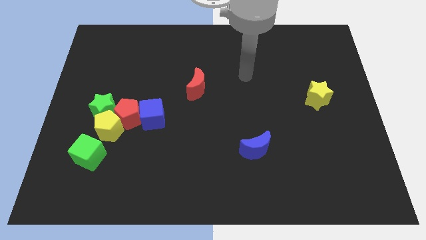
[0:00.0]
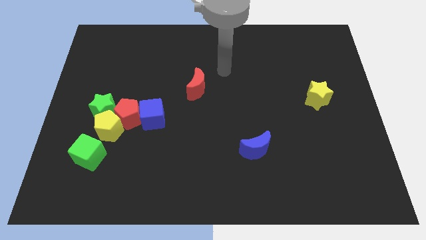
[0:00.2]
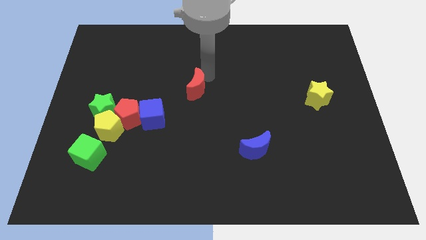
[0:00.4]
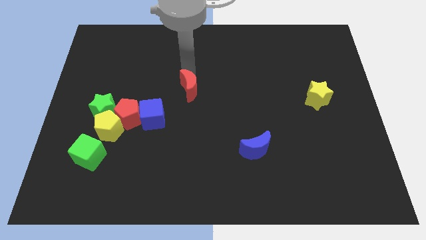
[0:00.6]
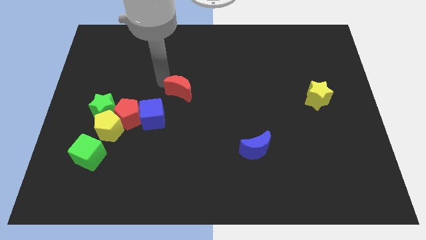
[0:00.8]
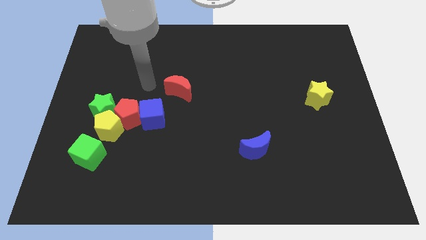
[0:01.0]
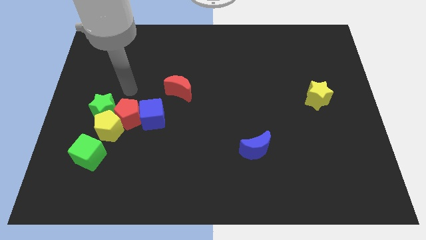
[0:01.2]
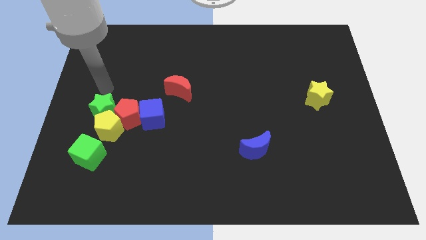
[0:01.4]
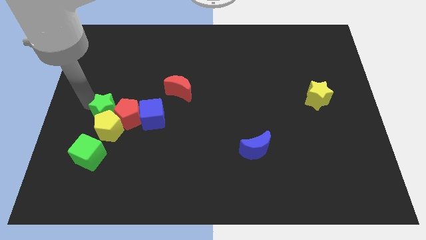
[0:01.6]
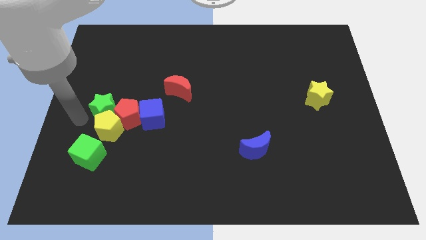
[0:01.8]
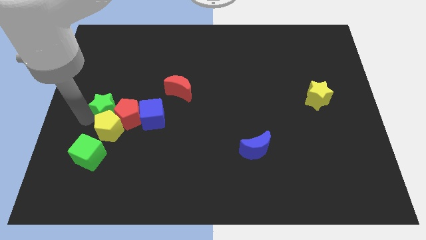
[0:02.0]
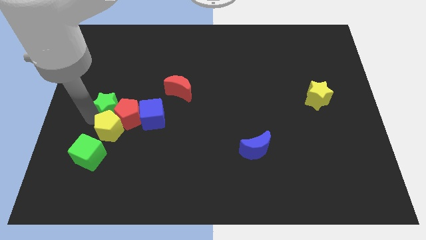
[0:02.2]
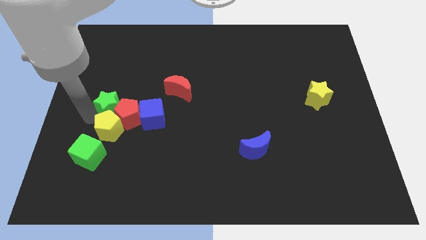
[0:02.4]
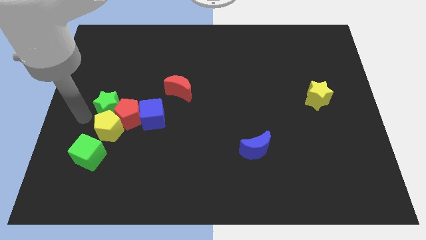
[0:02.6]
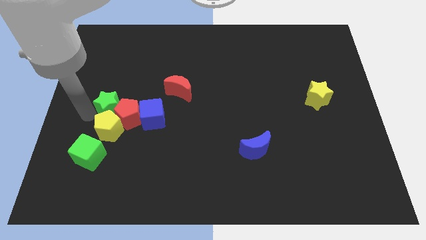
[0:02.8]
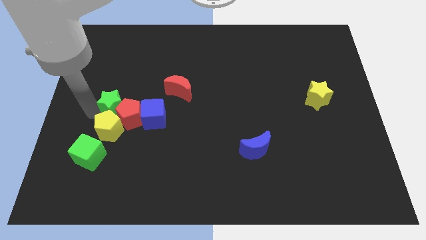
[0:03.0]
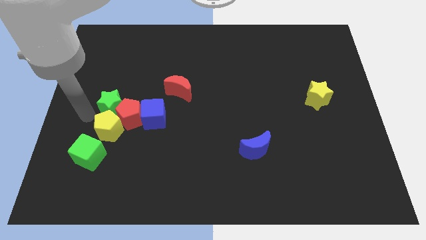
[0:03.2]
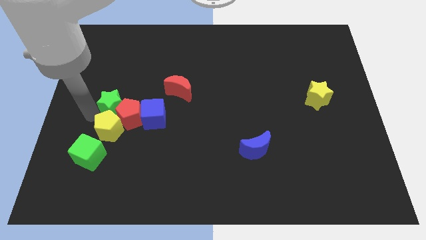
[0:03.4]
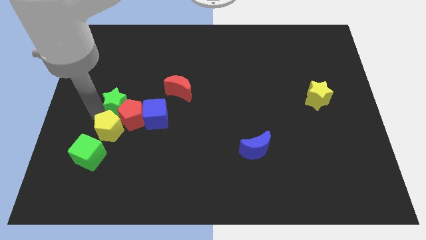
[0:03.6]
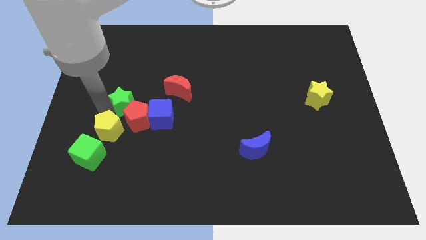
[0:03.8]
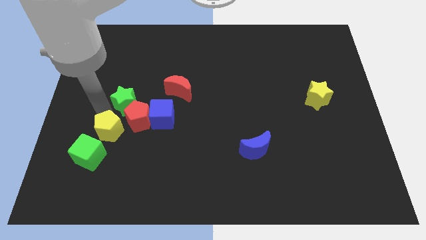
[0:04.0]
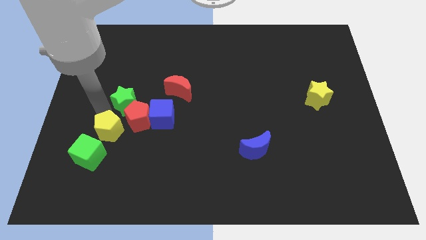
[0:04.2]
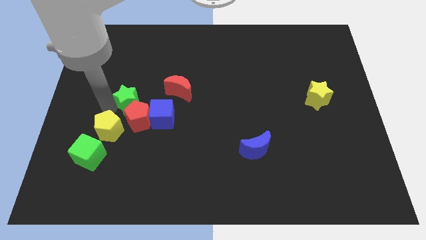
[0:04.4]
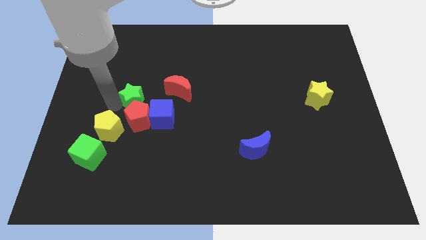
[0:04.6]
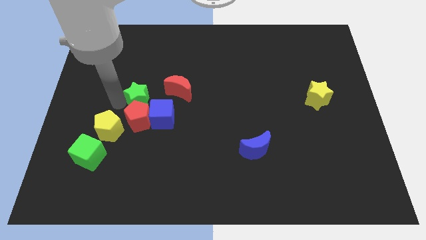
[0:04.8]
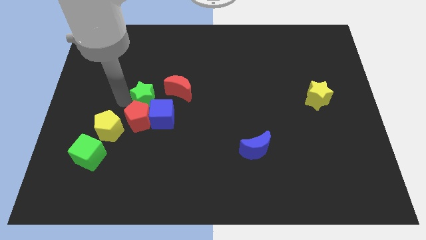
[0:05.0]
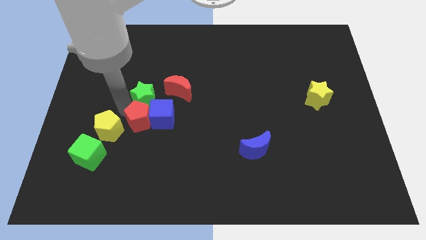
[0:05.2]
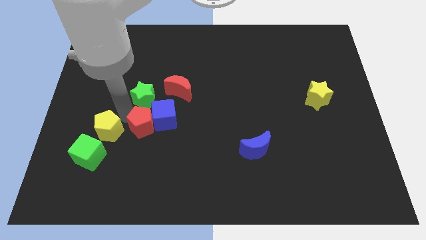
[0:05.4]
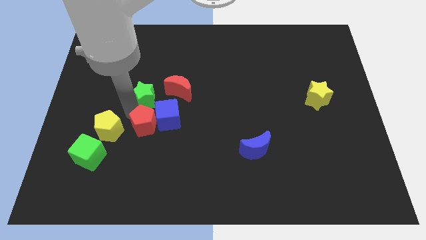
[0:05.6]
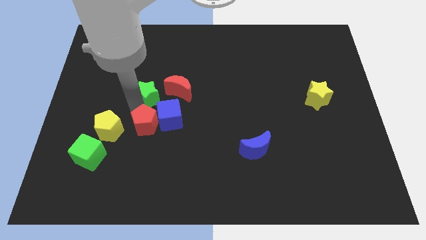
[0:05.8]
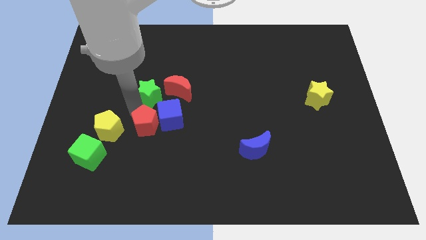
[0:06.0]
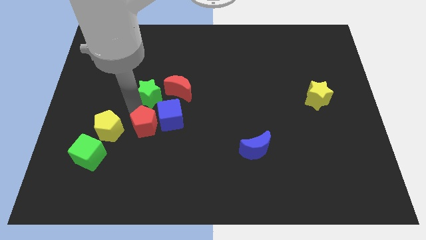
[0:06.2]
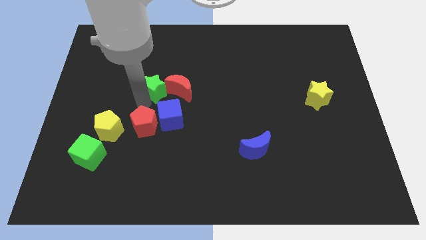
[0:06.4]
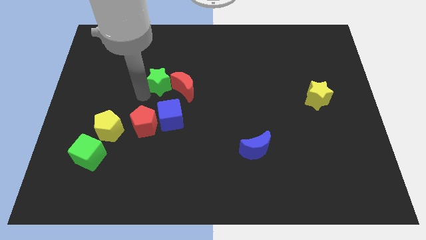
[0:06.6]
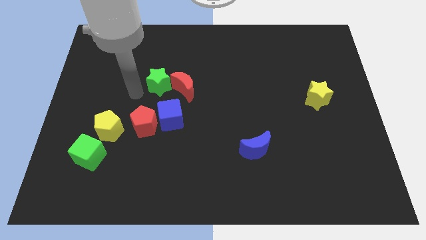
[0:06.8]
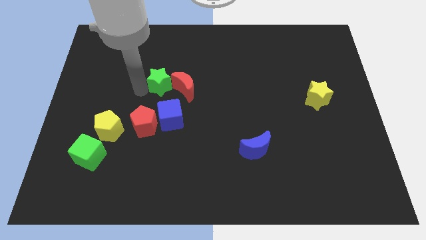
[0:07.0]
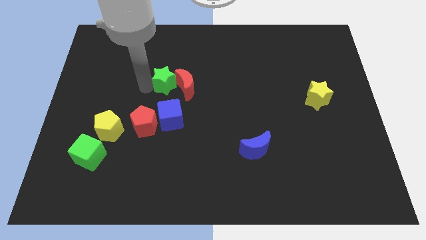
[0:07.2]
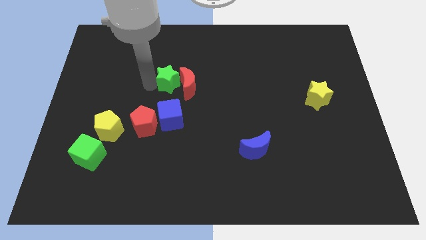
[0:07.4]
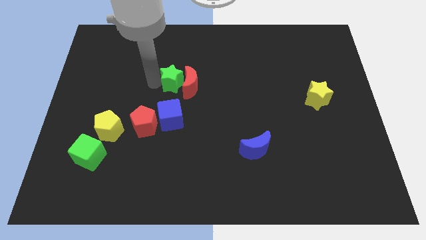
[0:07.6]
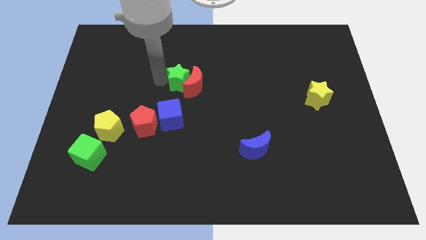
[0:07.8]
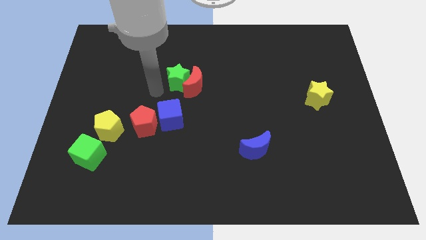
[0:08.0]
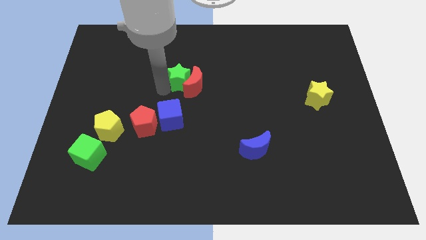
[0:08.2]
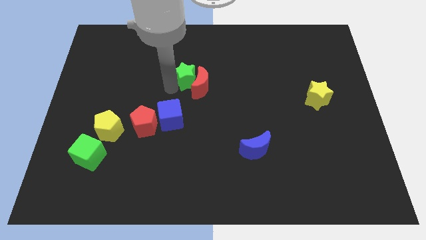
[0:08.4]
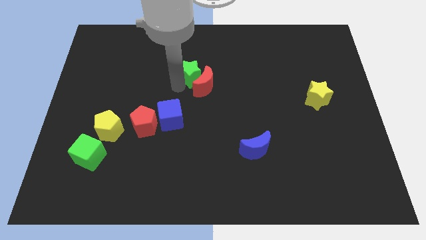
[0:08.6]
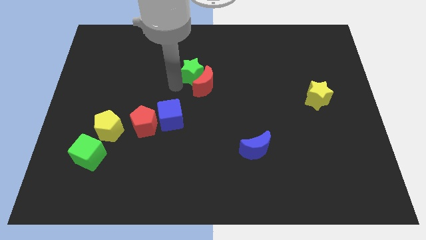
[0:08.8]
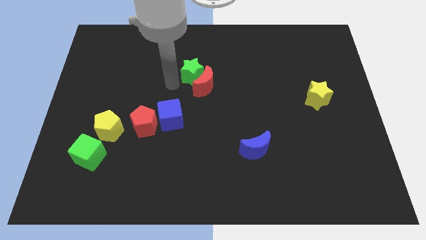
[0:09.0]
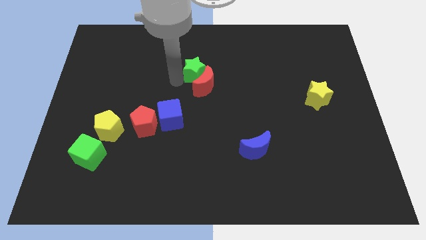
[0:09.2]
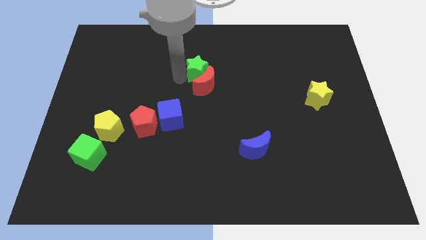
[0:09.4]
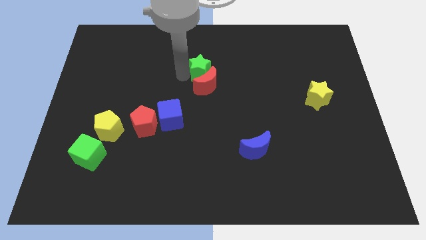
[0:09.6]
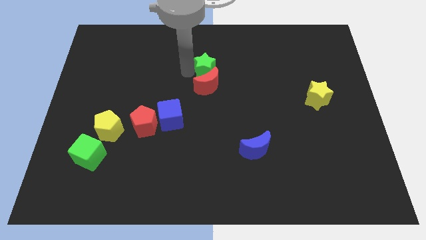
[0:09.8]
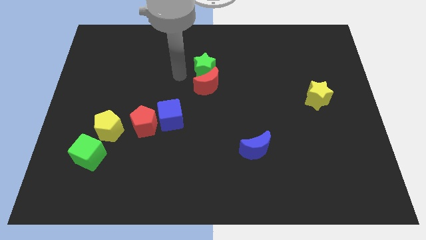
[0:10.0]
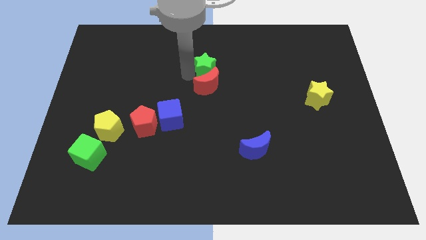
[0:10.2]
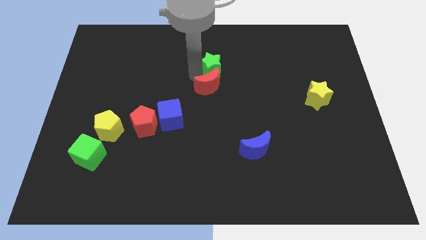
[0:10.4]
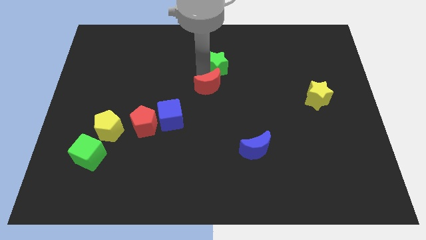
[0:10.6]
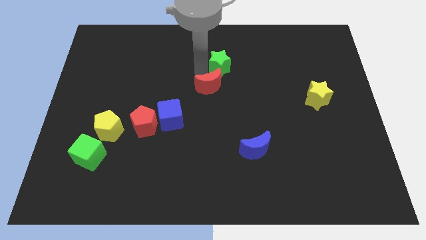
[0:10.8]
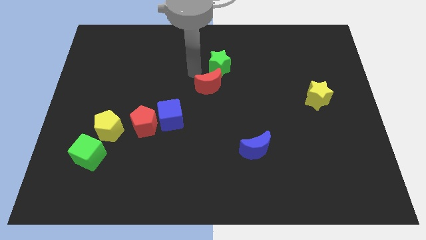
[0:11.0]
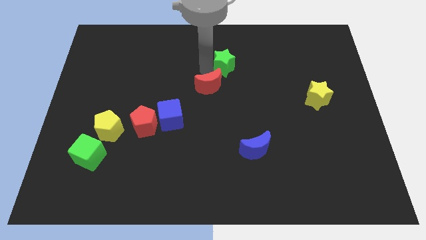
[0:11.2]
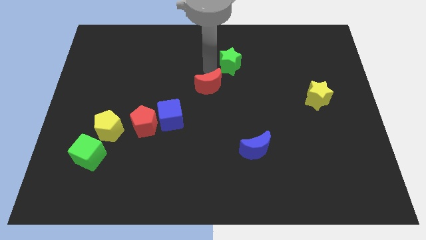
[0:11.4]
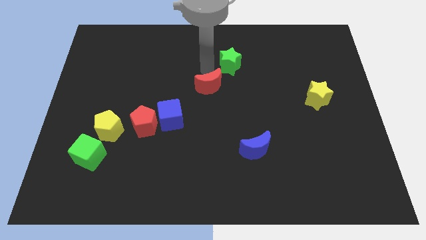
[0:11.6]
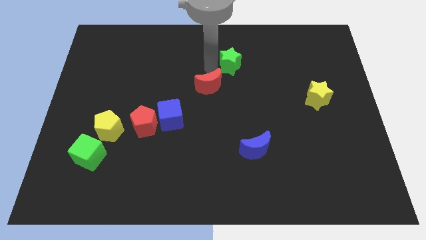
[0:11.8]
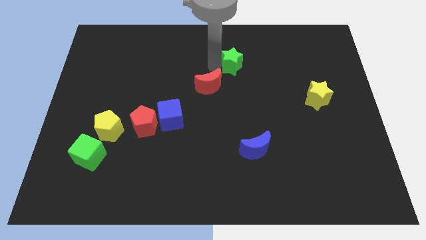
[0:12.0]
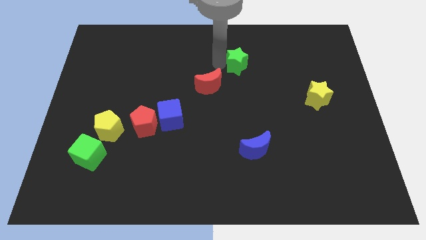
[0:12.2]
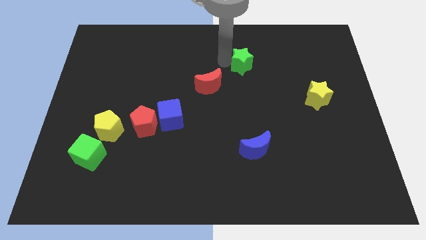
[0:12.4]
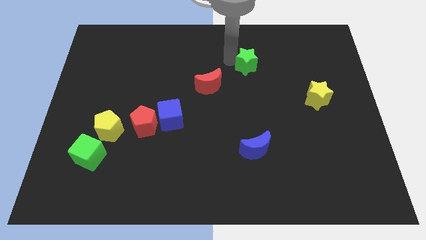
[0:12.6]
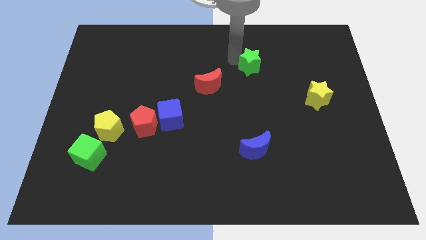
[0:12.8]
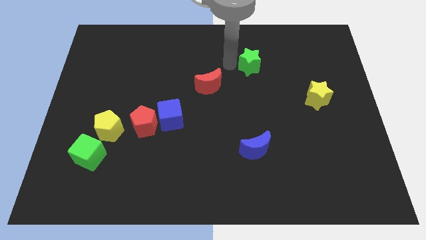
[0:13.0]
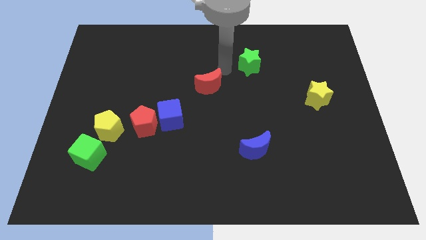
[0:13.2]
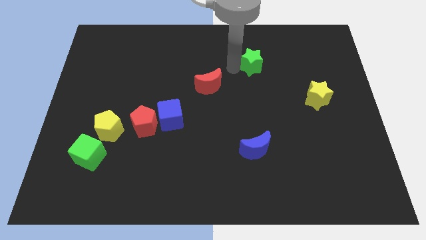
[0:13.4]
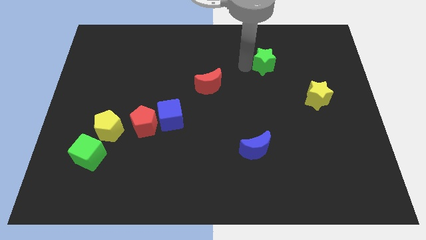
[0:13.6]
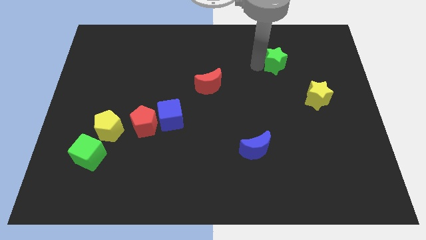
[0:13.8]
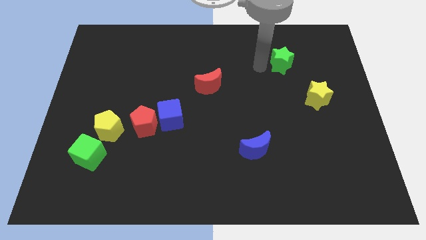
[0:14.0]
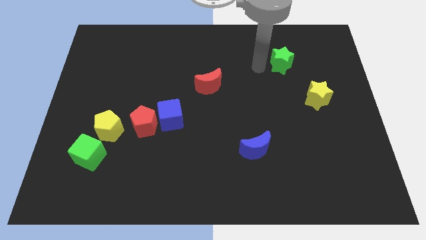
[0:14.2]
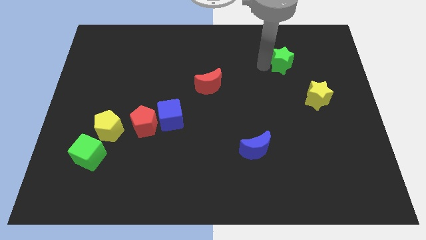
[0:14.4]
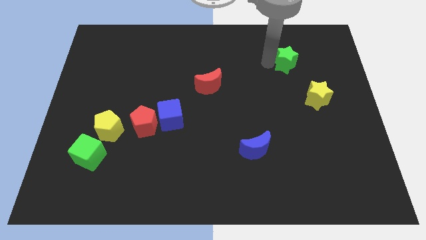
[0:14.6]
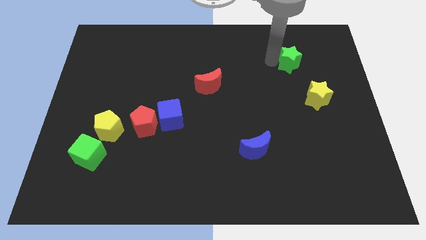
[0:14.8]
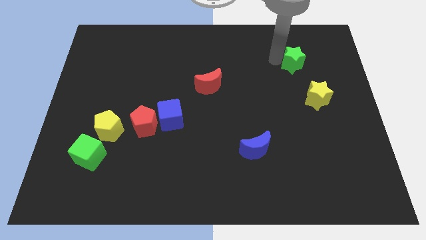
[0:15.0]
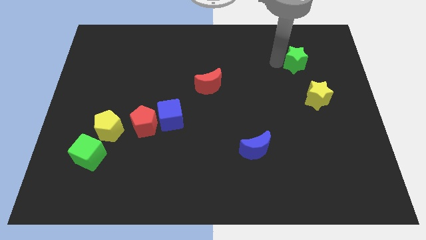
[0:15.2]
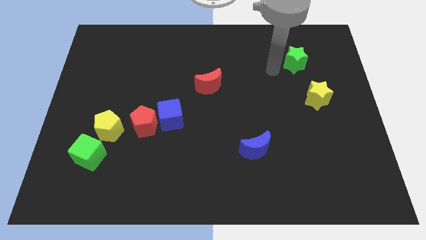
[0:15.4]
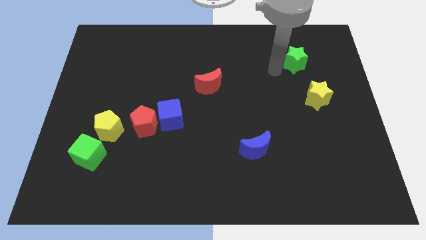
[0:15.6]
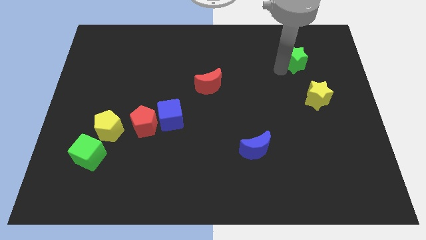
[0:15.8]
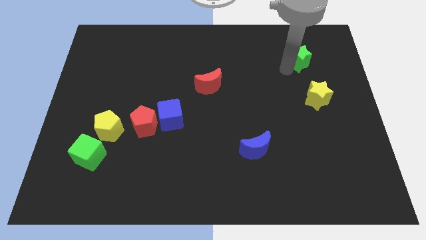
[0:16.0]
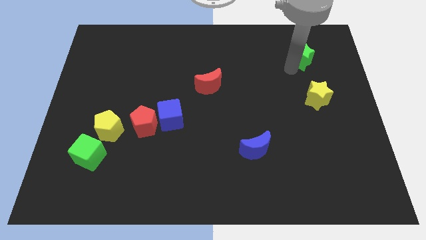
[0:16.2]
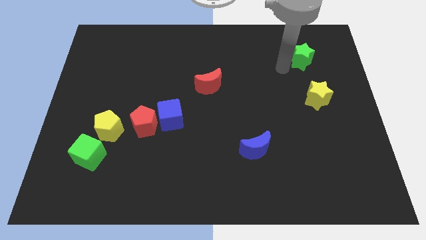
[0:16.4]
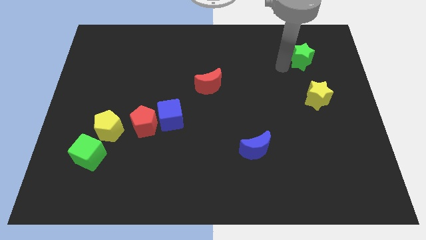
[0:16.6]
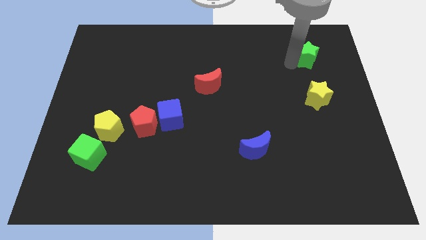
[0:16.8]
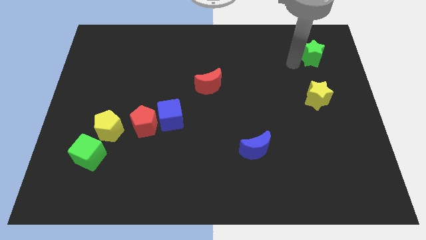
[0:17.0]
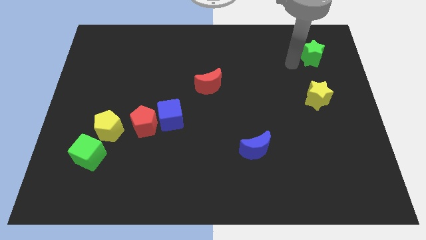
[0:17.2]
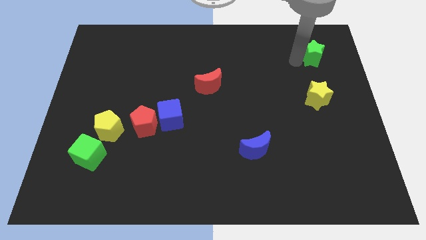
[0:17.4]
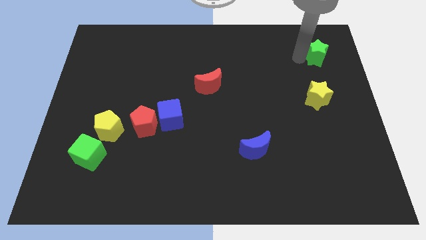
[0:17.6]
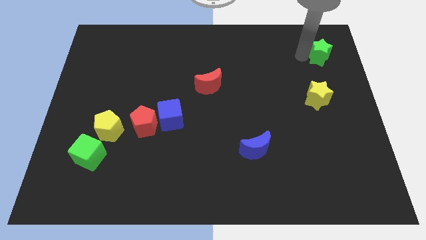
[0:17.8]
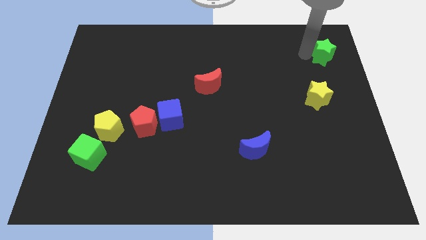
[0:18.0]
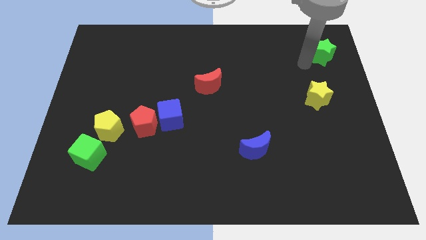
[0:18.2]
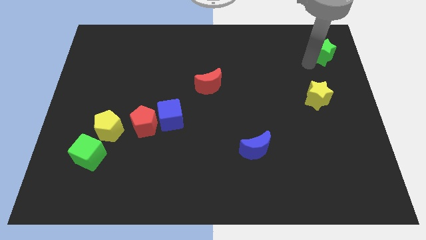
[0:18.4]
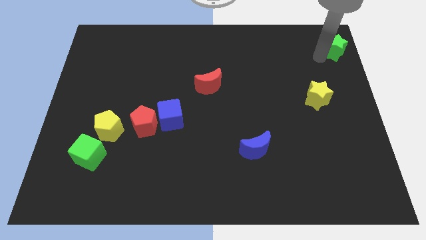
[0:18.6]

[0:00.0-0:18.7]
put the green star to the top right of the board
